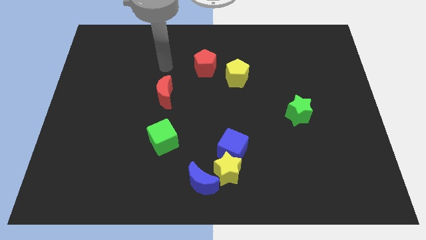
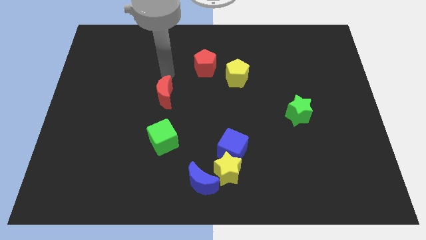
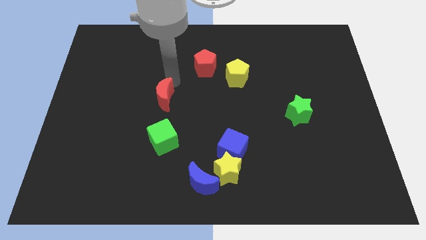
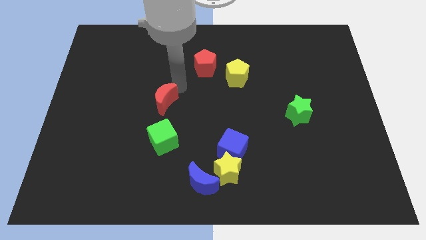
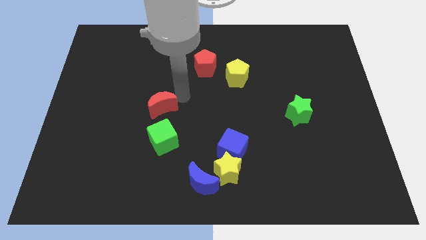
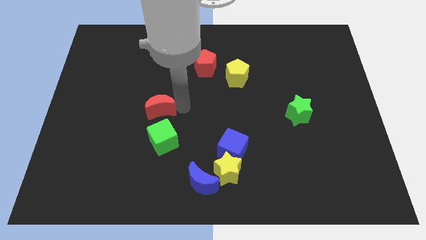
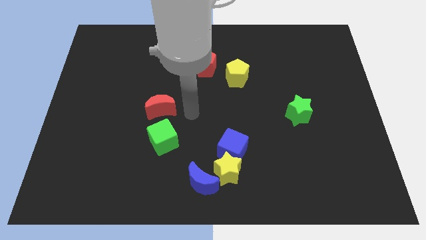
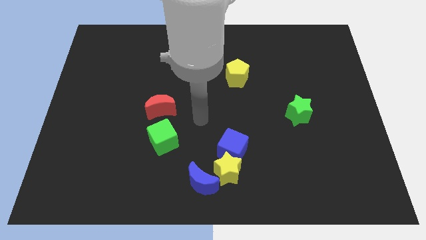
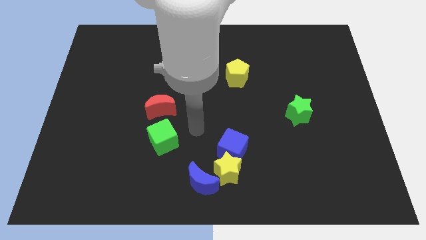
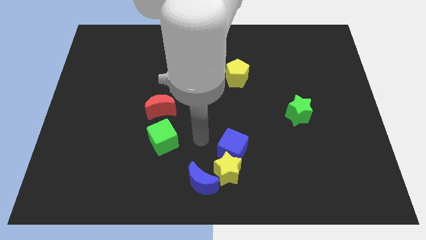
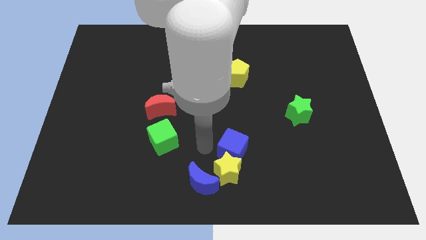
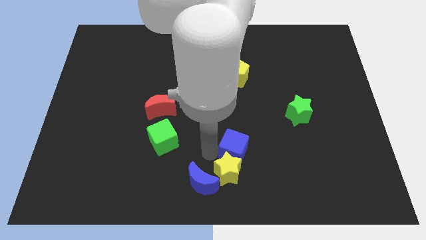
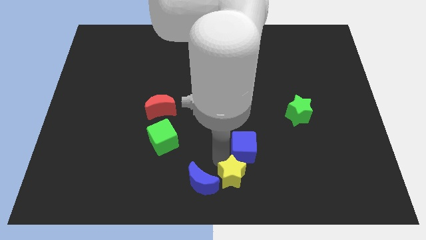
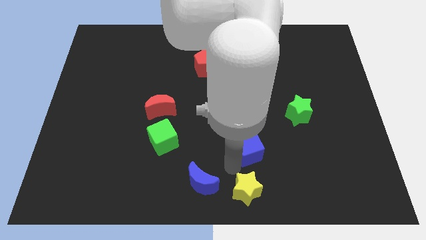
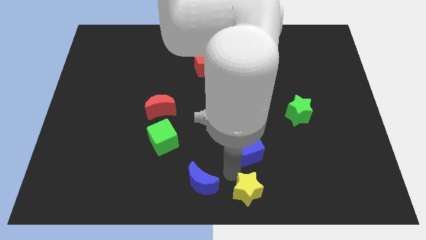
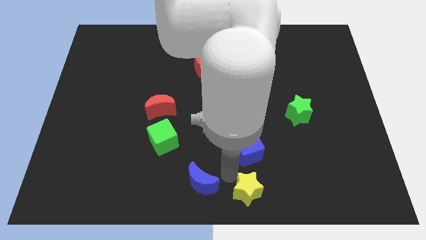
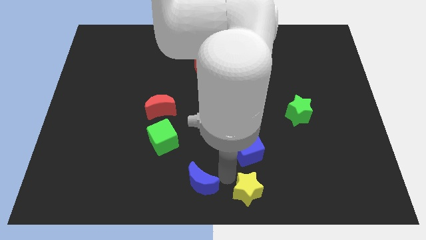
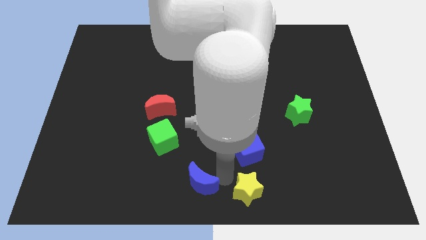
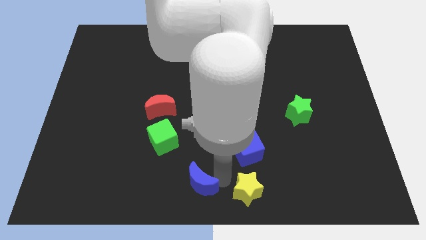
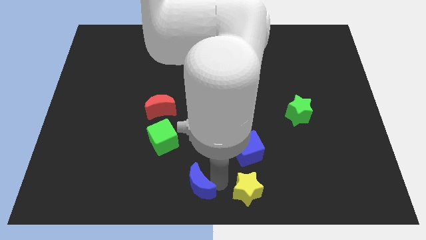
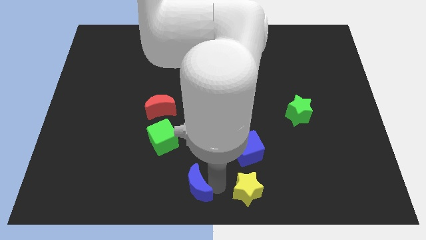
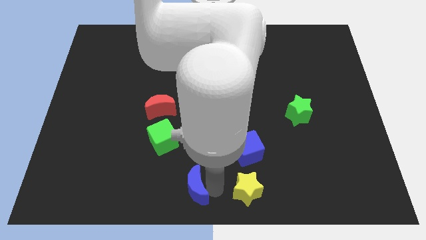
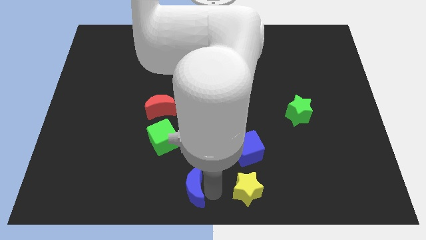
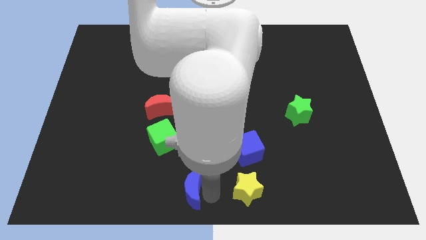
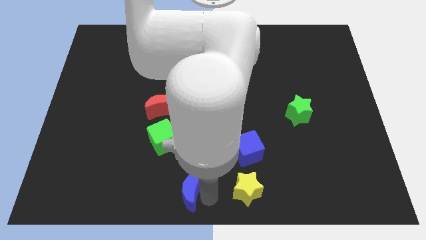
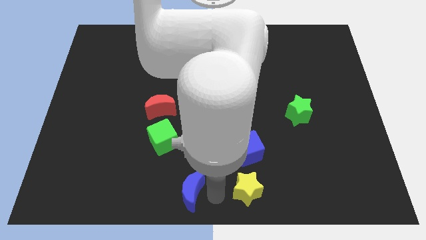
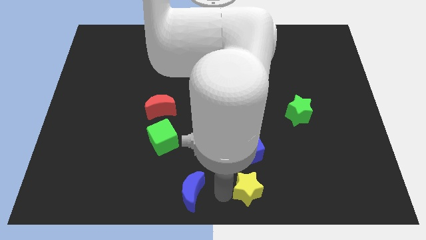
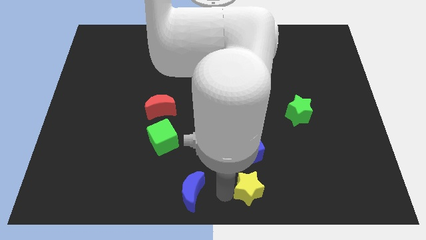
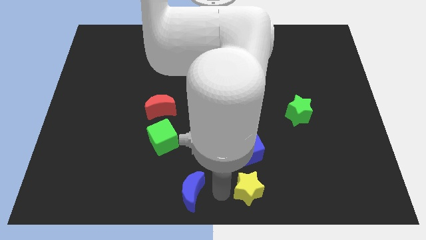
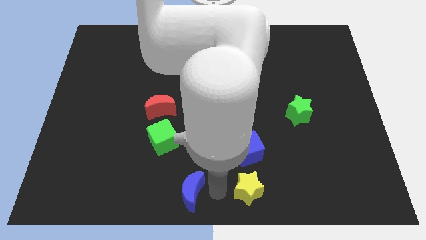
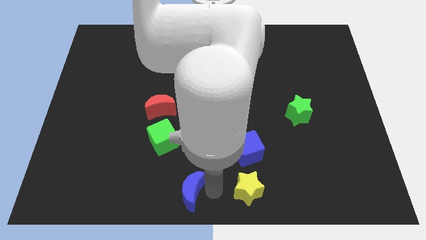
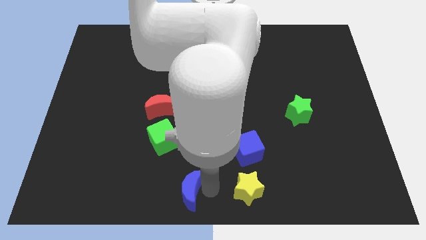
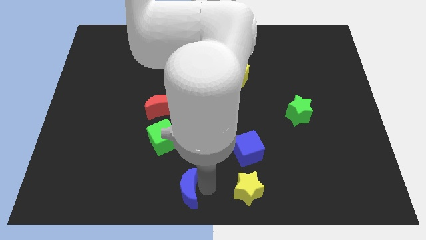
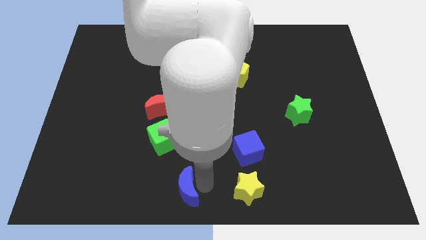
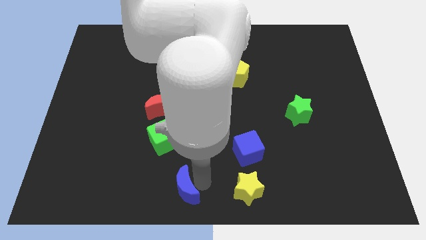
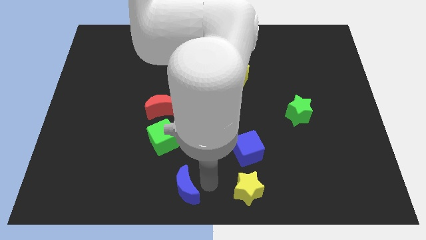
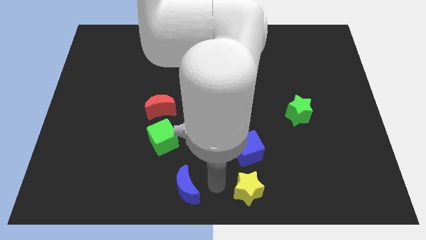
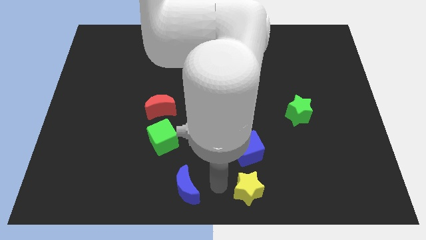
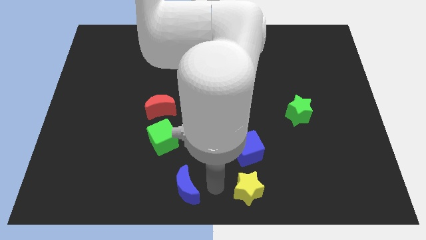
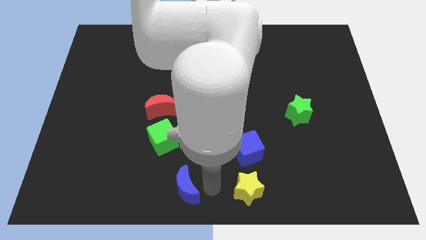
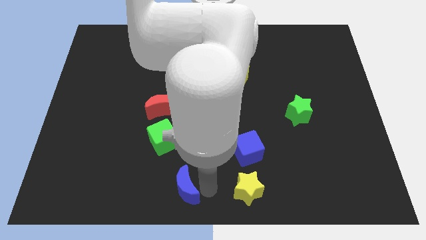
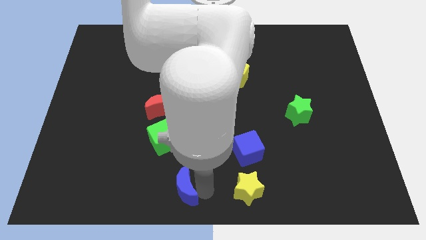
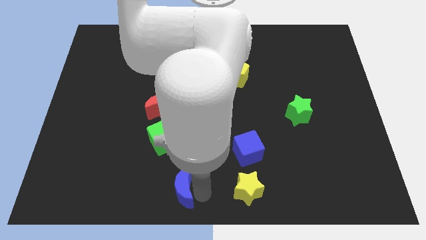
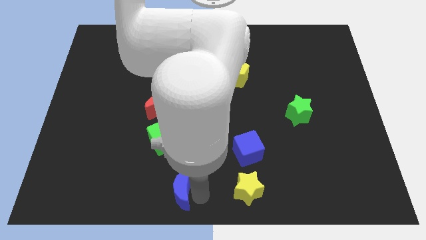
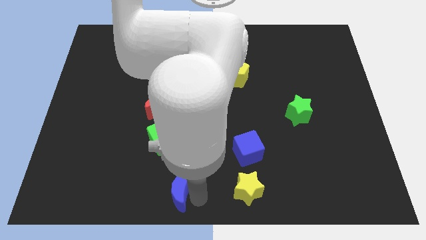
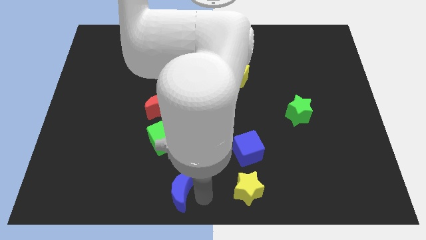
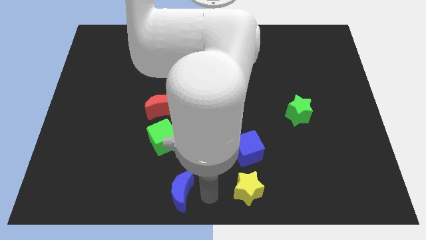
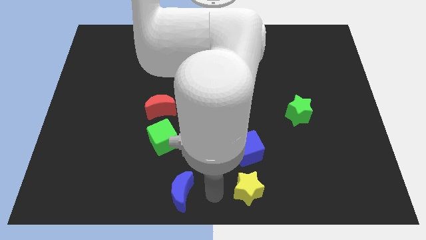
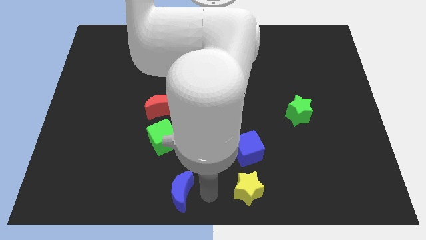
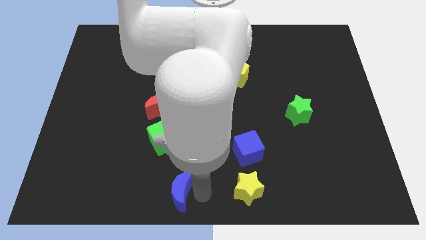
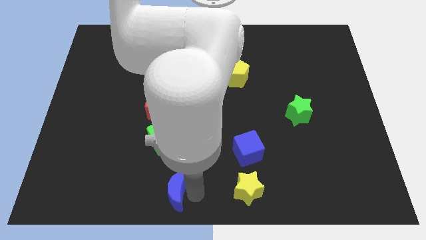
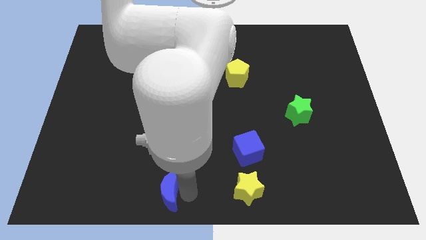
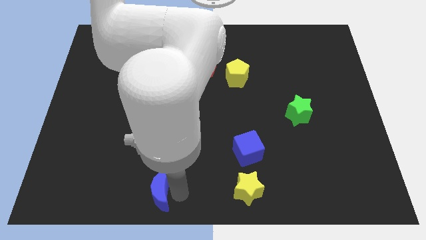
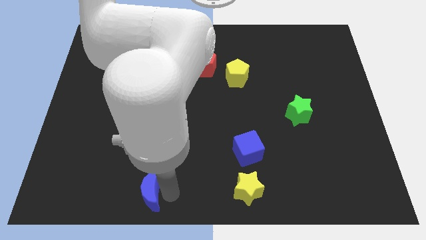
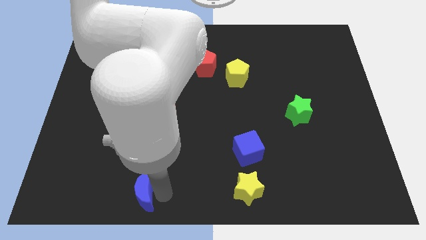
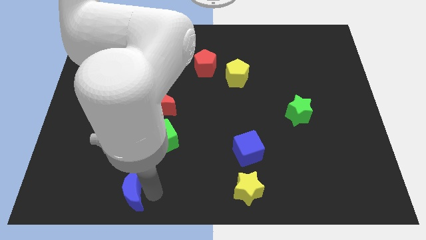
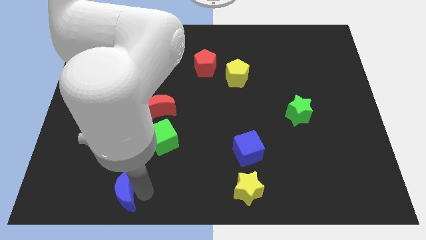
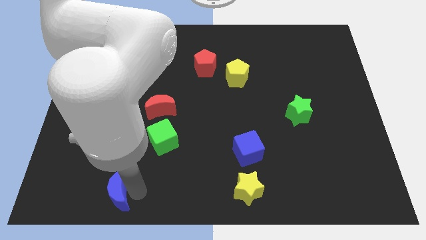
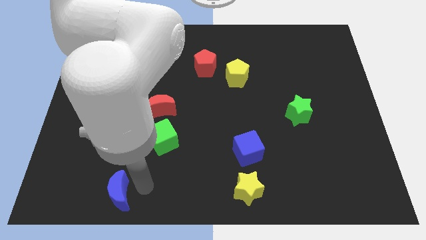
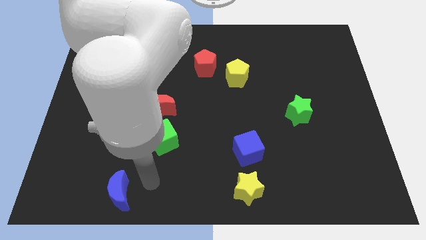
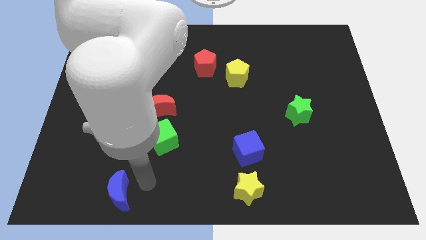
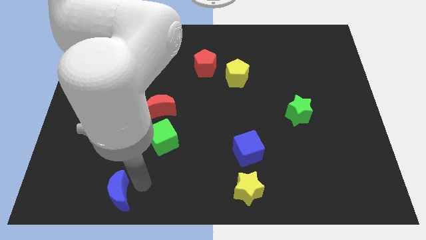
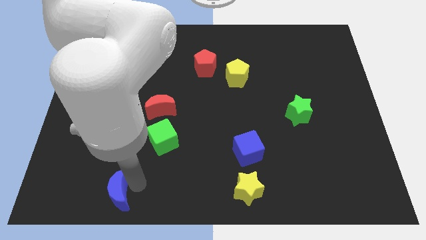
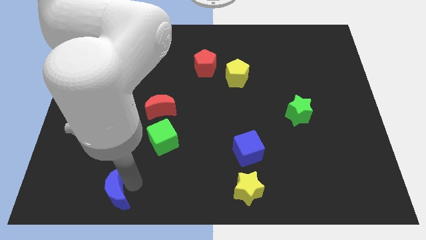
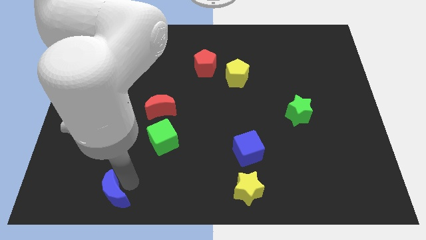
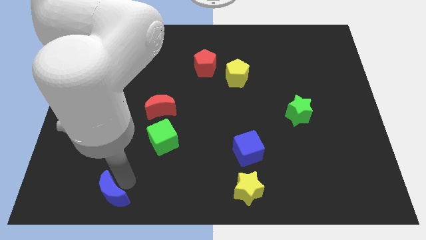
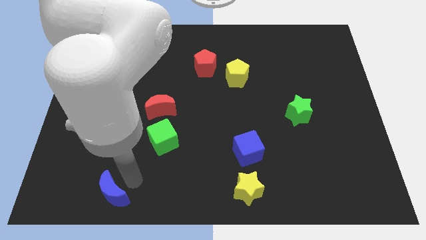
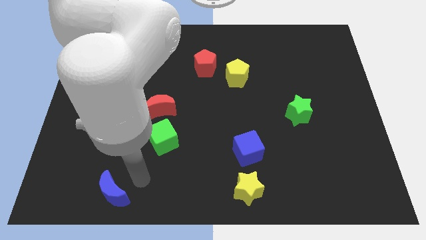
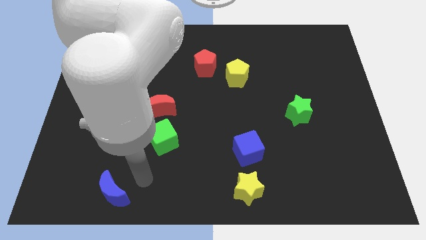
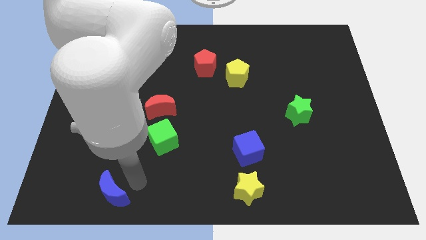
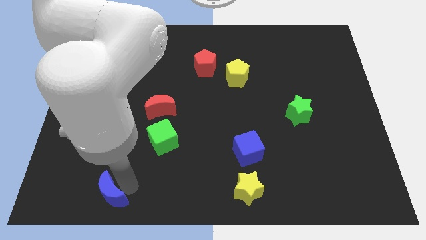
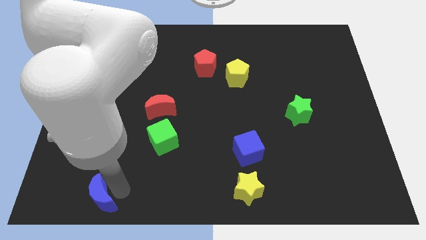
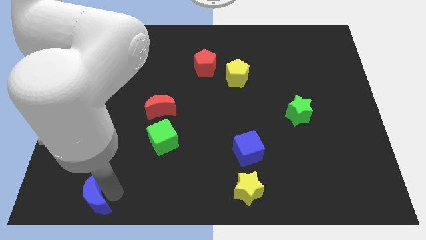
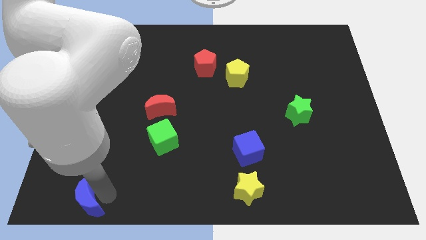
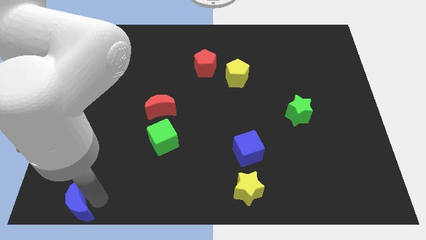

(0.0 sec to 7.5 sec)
put the blue moon to the bottom left of the board
